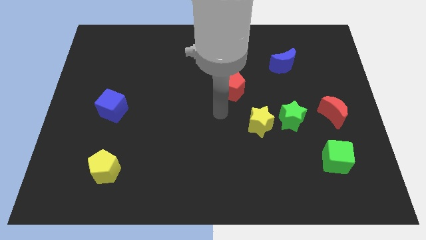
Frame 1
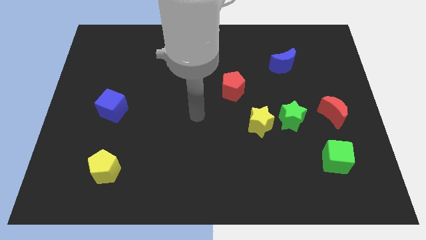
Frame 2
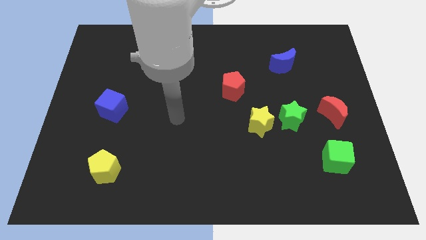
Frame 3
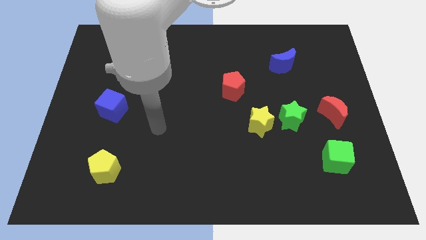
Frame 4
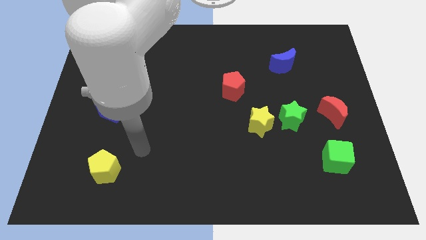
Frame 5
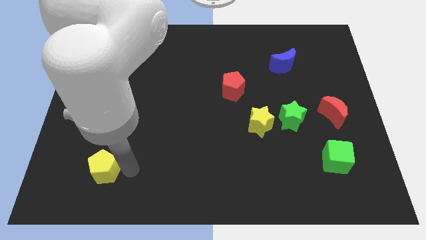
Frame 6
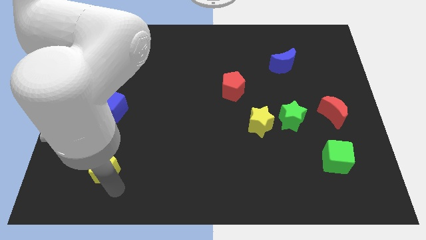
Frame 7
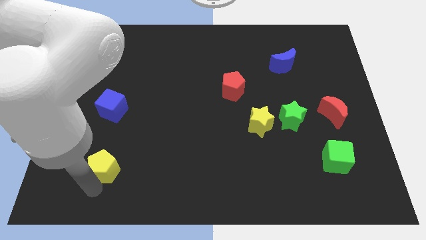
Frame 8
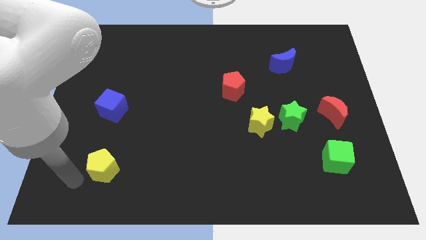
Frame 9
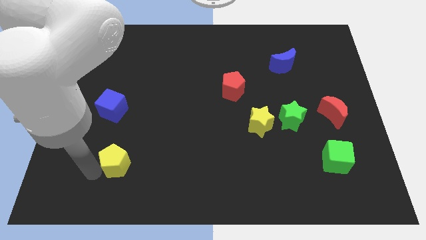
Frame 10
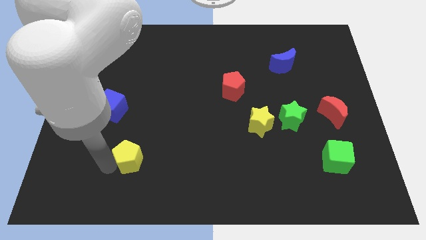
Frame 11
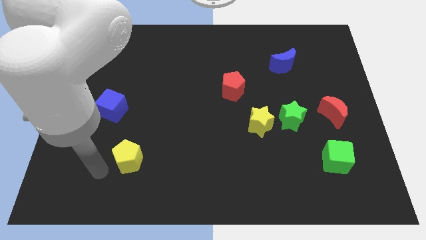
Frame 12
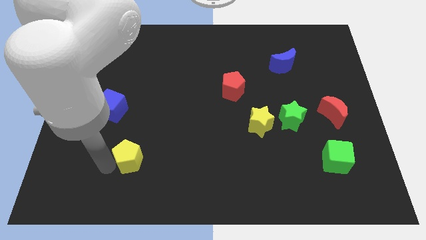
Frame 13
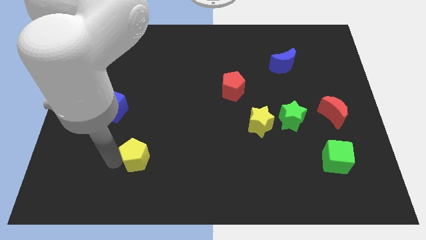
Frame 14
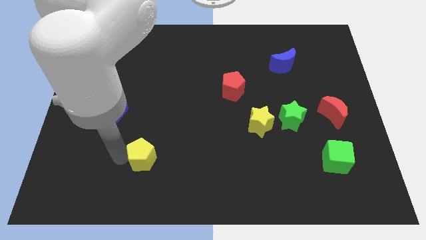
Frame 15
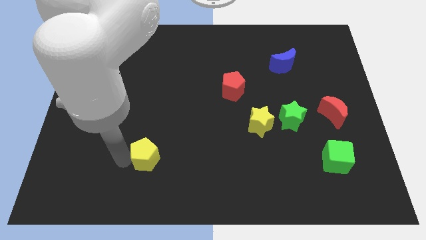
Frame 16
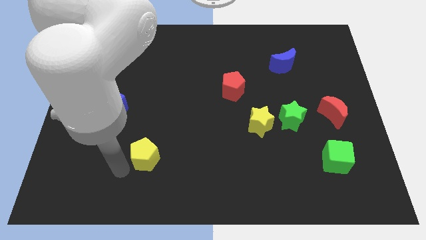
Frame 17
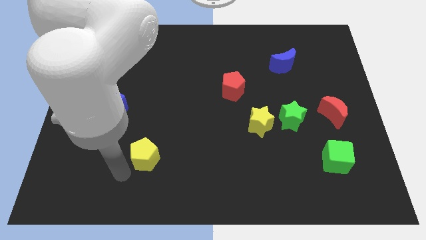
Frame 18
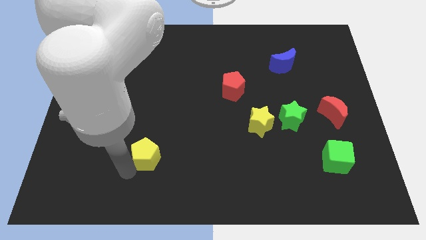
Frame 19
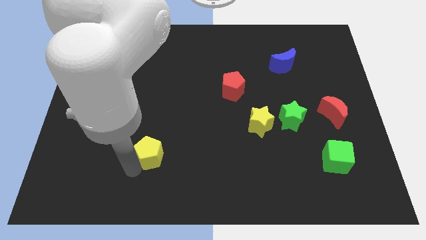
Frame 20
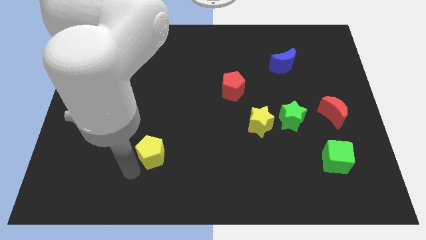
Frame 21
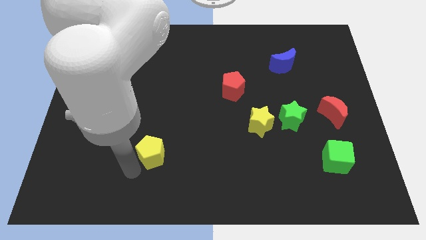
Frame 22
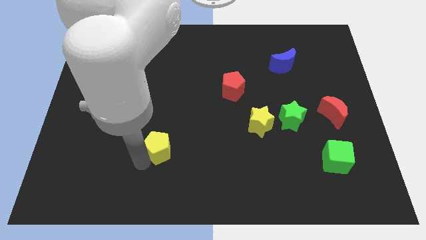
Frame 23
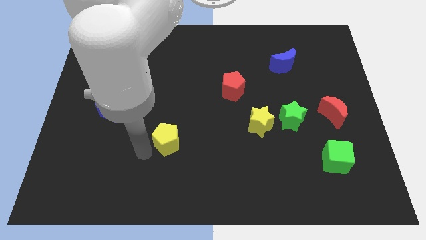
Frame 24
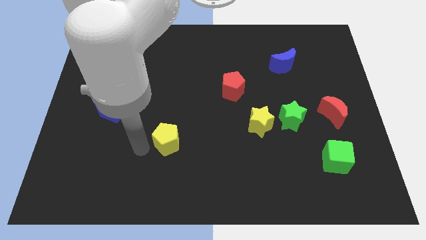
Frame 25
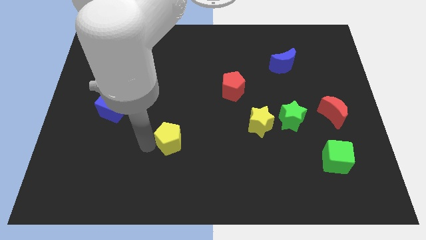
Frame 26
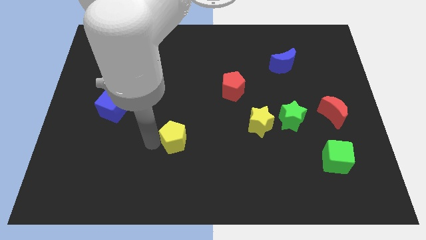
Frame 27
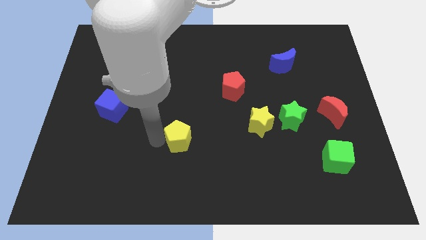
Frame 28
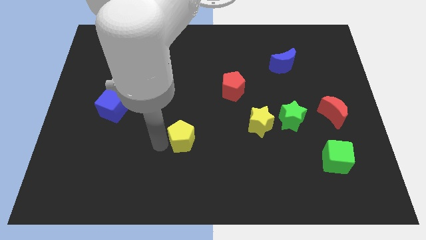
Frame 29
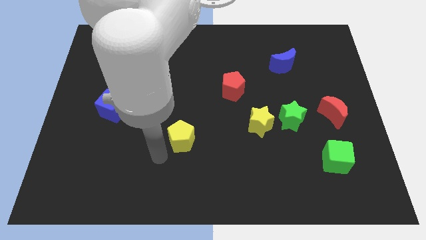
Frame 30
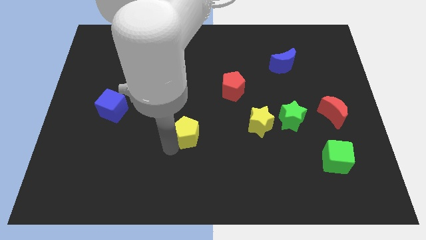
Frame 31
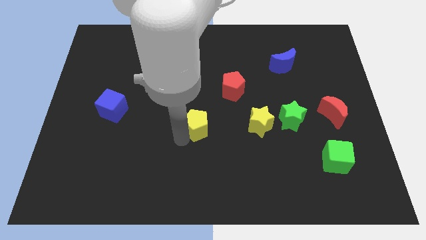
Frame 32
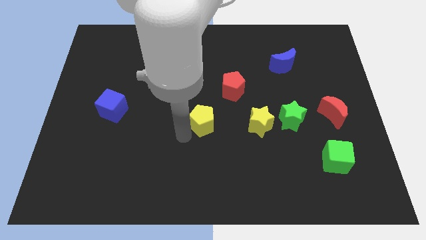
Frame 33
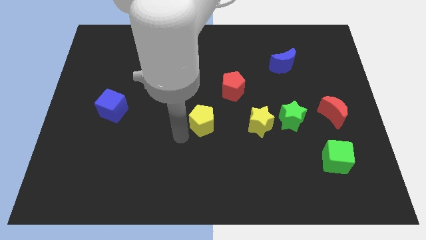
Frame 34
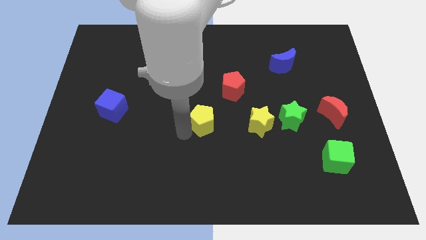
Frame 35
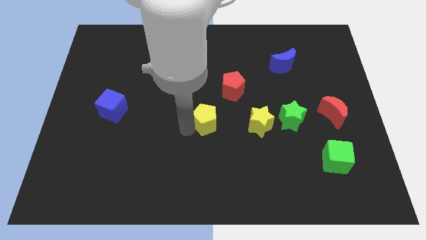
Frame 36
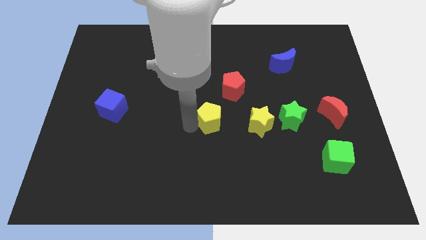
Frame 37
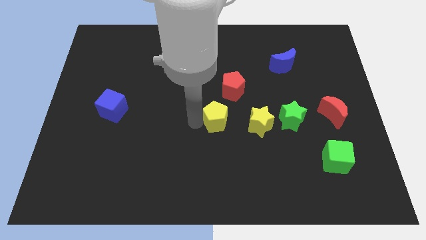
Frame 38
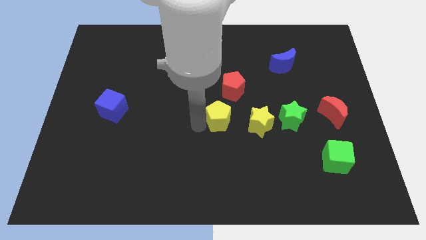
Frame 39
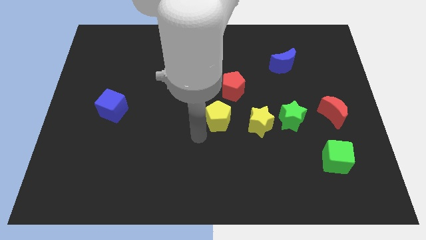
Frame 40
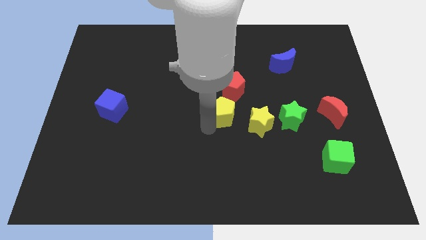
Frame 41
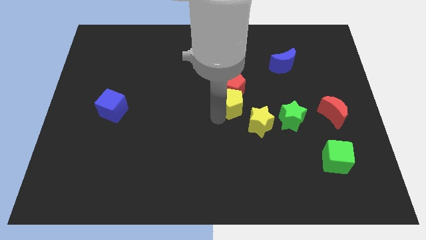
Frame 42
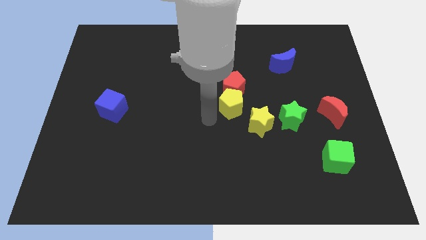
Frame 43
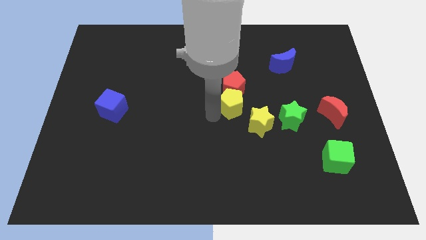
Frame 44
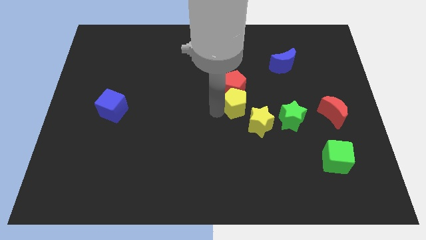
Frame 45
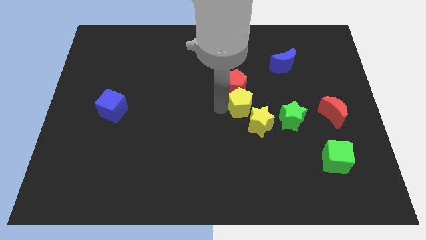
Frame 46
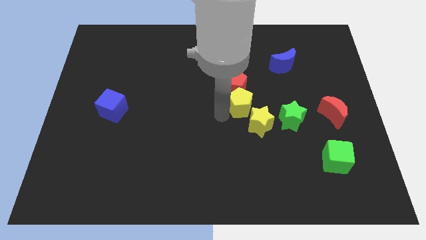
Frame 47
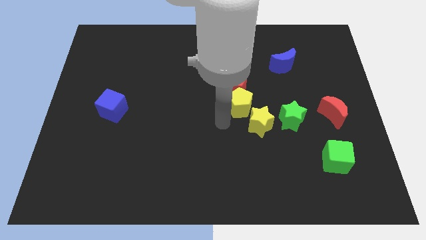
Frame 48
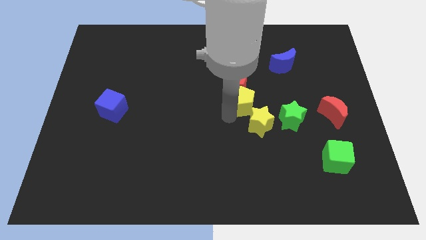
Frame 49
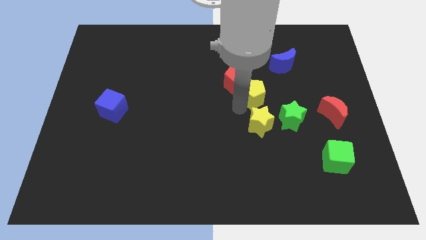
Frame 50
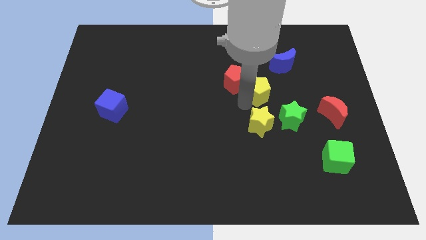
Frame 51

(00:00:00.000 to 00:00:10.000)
slide the yellow pentagon diagonally down and to the left of the blue moon

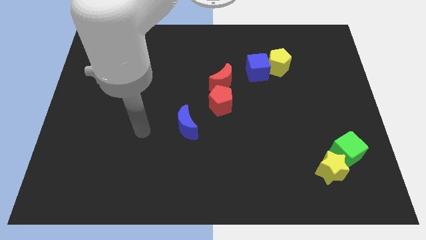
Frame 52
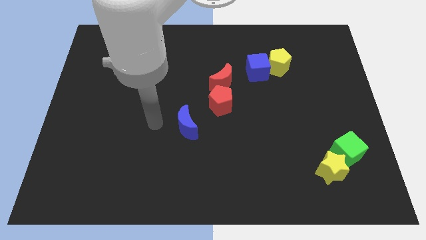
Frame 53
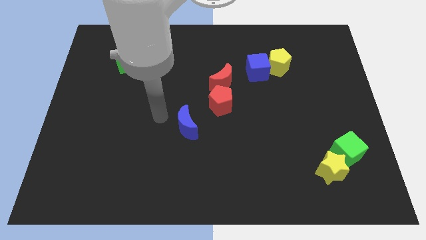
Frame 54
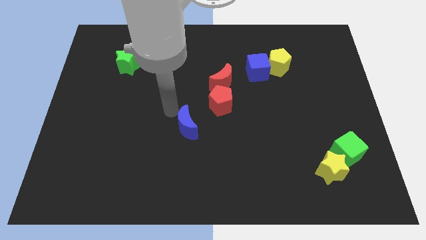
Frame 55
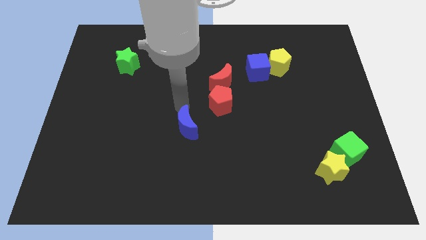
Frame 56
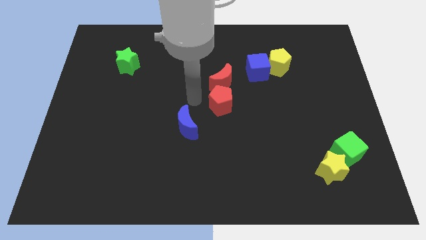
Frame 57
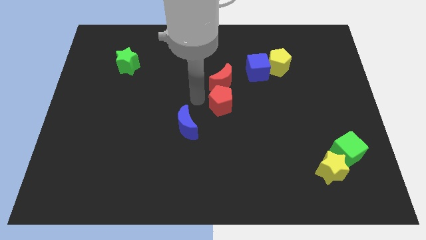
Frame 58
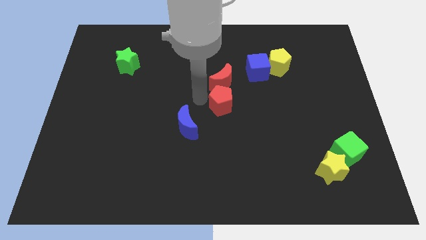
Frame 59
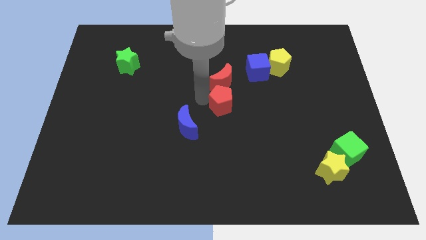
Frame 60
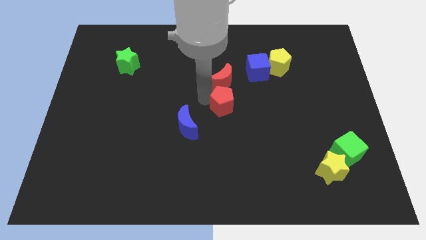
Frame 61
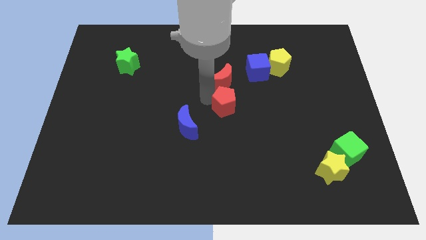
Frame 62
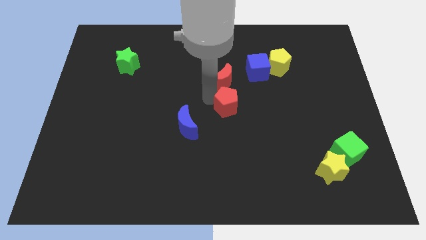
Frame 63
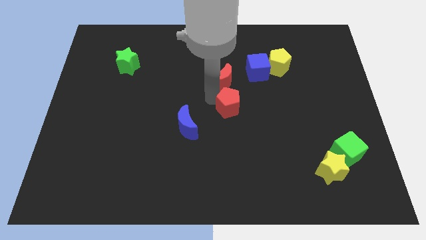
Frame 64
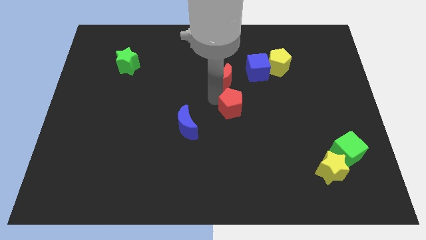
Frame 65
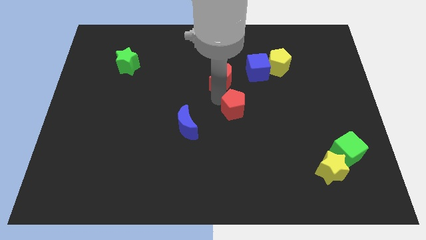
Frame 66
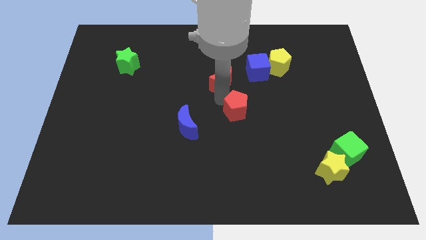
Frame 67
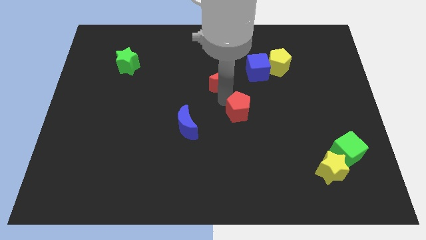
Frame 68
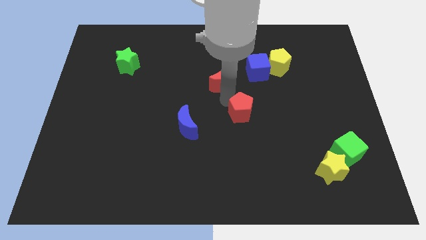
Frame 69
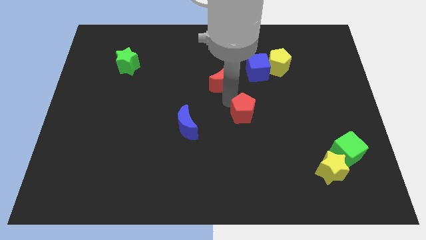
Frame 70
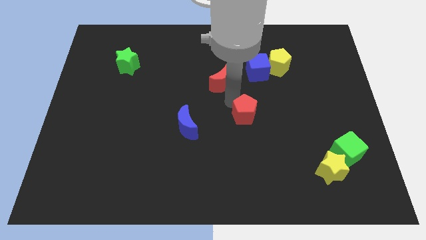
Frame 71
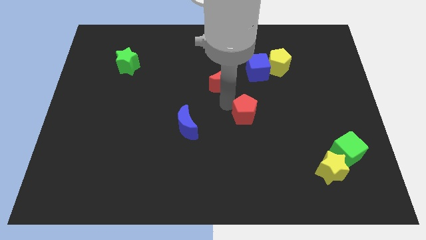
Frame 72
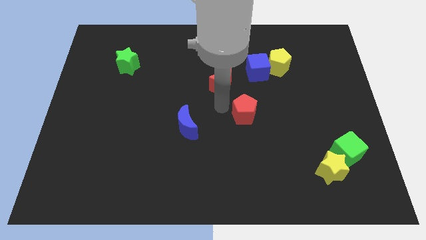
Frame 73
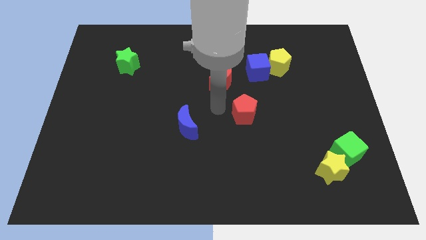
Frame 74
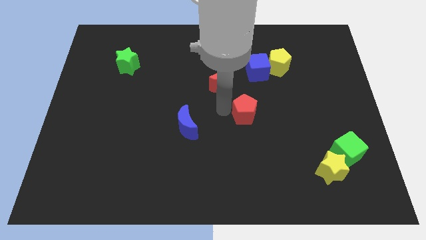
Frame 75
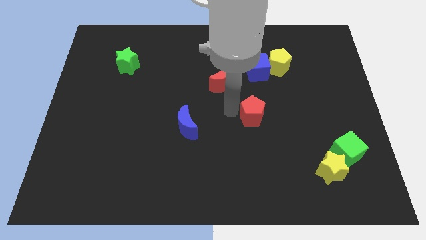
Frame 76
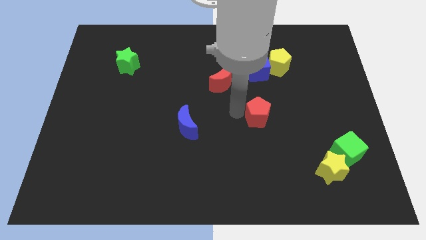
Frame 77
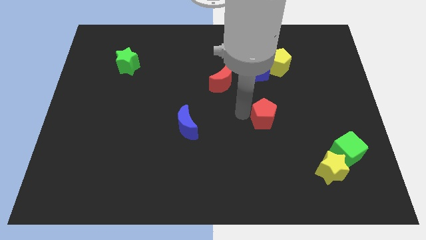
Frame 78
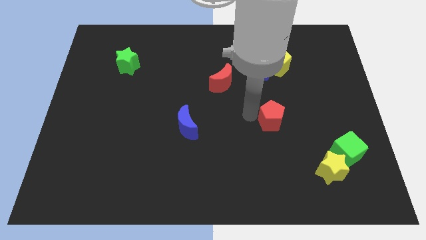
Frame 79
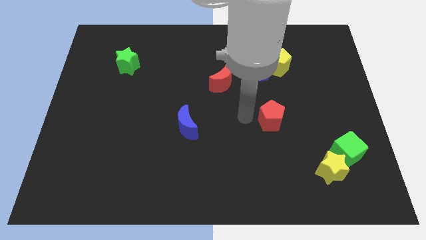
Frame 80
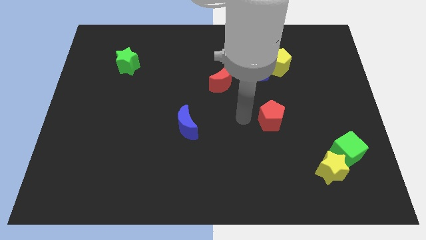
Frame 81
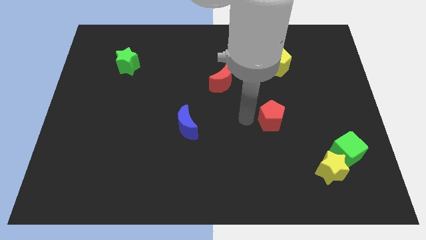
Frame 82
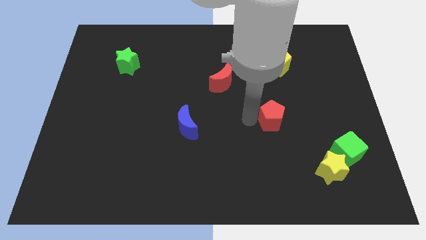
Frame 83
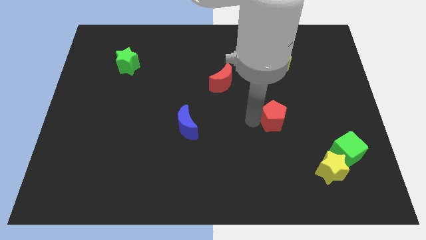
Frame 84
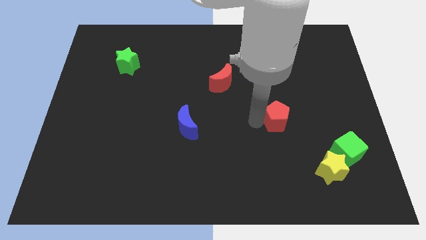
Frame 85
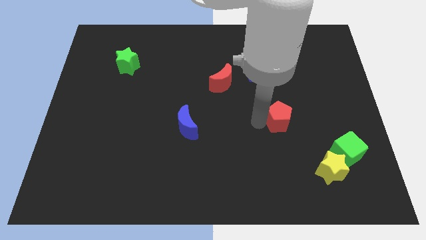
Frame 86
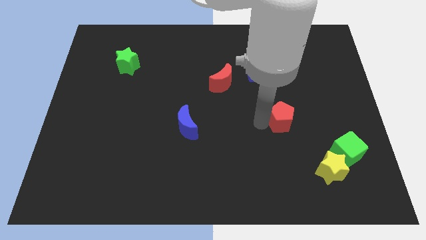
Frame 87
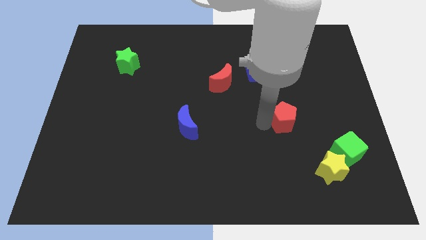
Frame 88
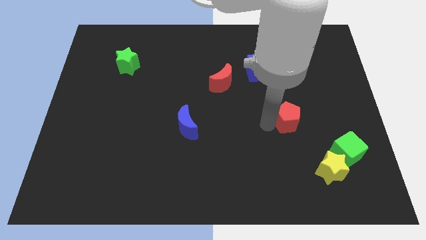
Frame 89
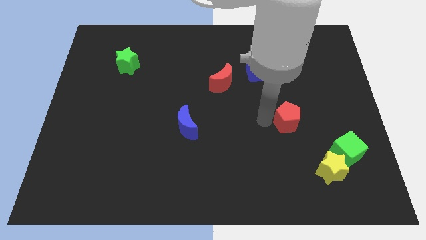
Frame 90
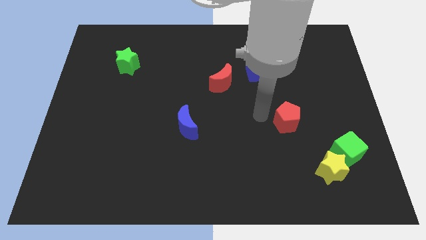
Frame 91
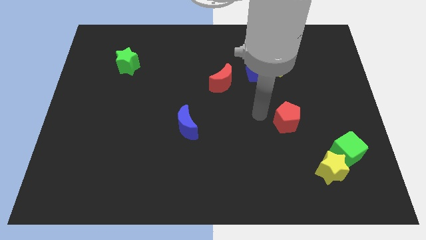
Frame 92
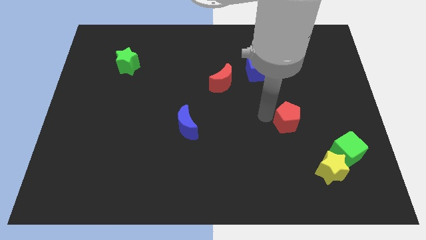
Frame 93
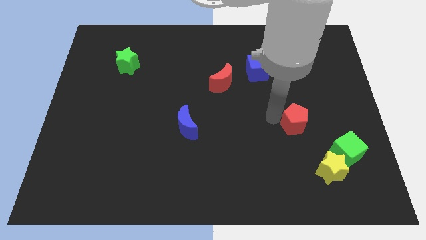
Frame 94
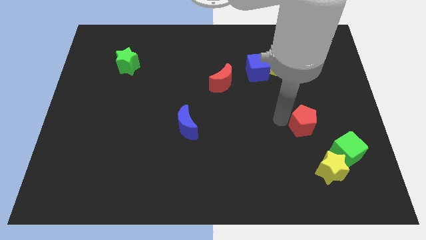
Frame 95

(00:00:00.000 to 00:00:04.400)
move the red pentagon above the yellow star
